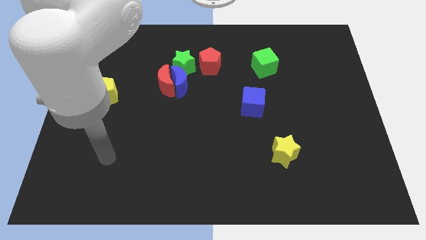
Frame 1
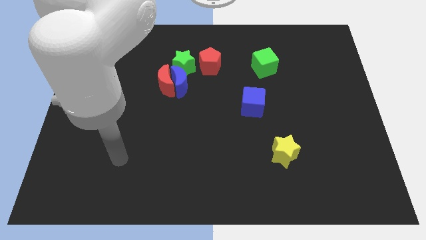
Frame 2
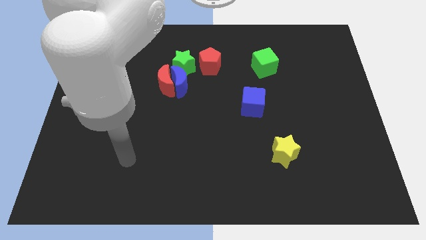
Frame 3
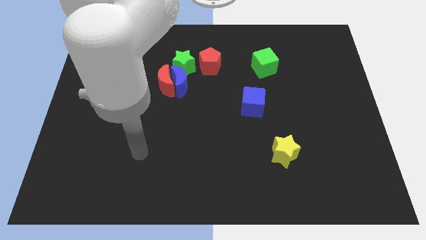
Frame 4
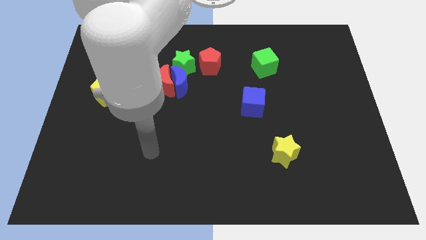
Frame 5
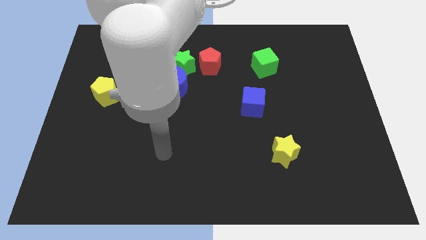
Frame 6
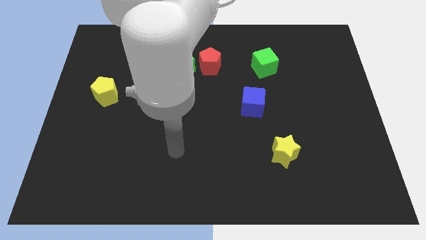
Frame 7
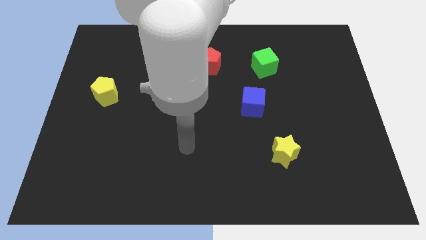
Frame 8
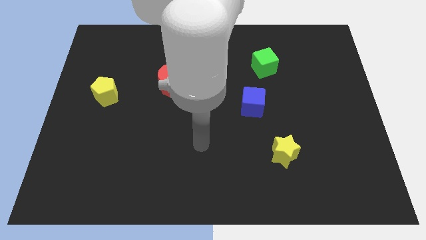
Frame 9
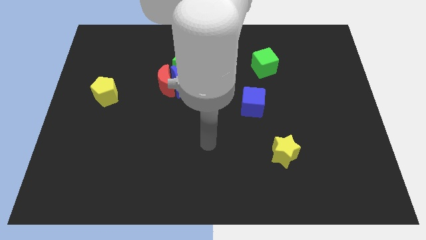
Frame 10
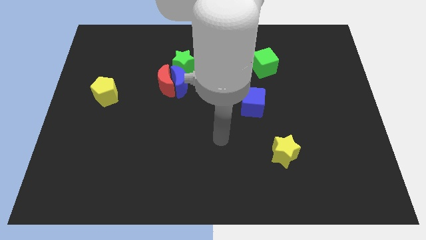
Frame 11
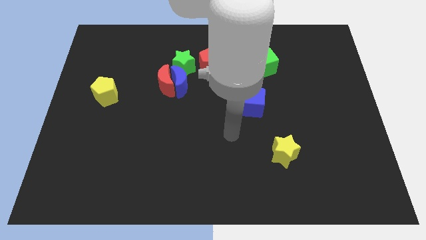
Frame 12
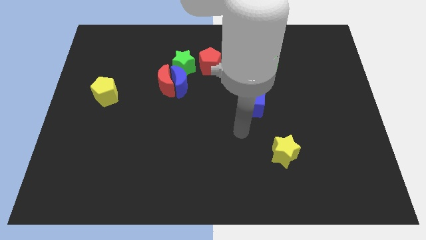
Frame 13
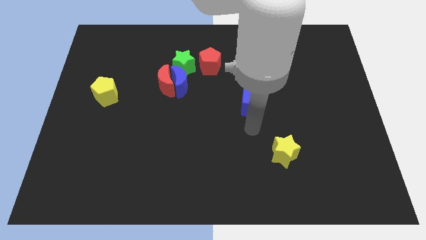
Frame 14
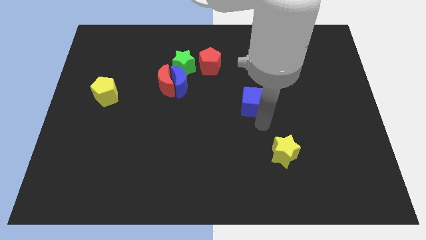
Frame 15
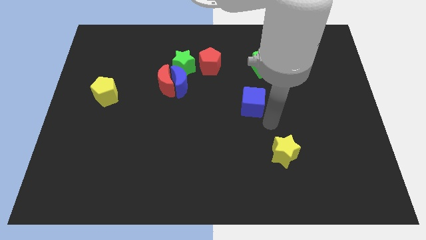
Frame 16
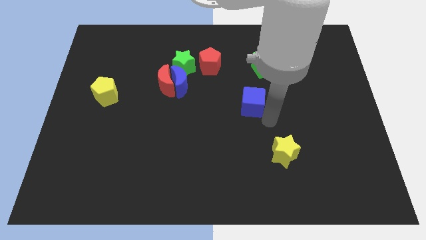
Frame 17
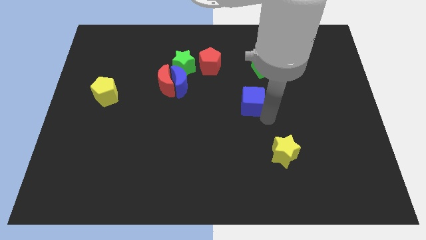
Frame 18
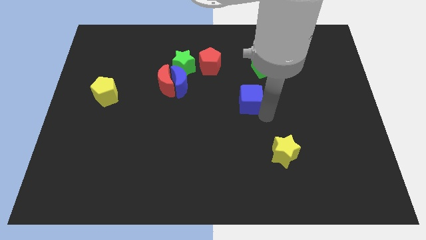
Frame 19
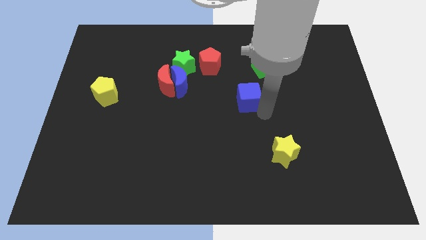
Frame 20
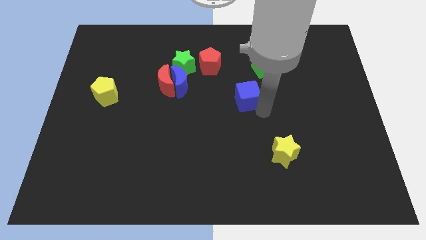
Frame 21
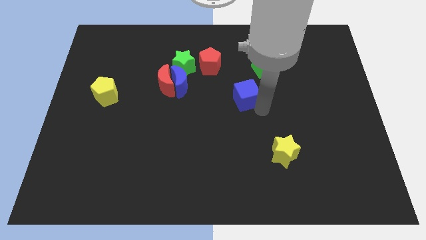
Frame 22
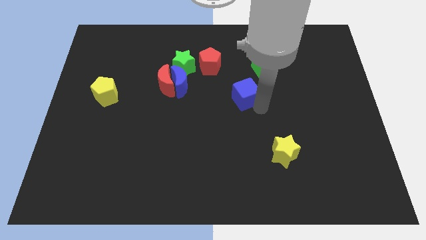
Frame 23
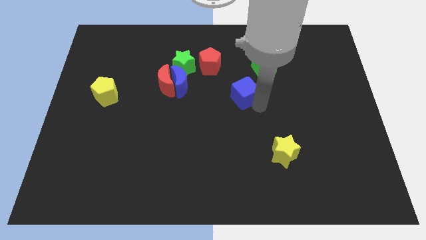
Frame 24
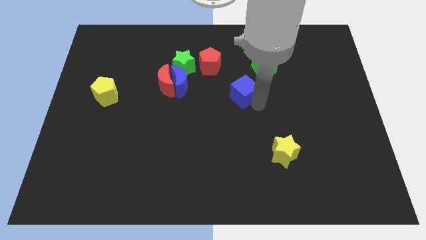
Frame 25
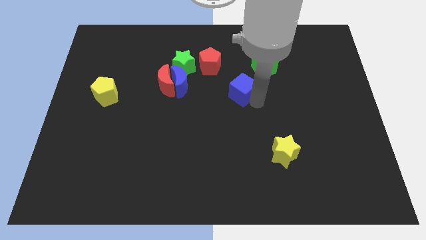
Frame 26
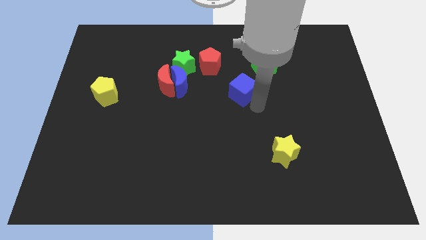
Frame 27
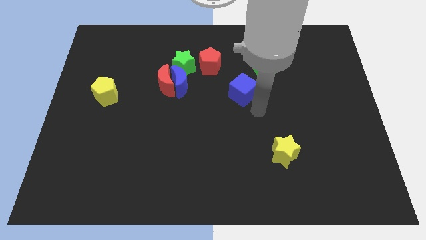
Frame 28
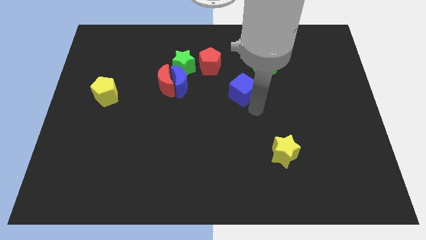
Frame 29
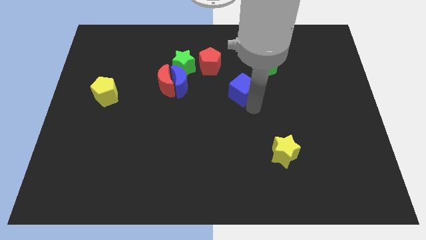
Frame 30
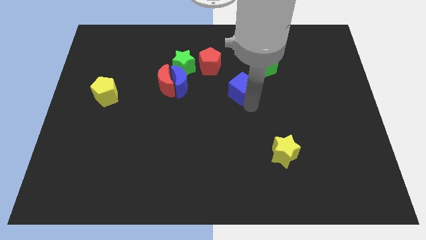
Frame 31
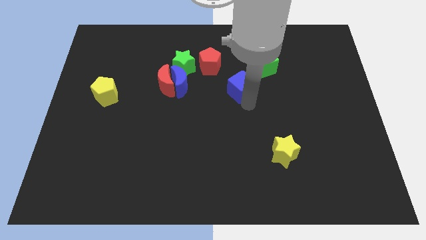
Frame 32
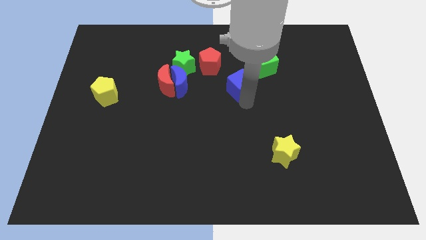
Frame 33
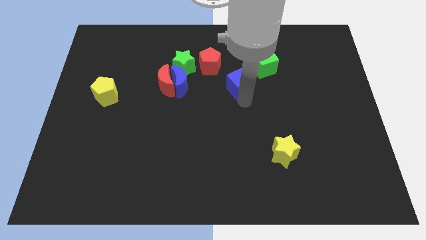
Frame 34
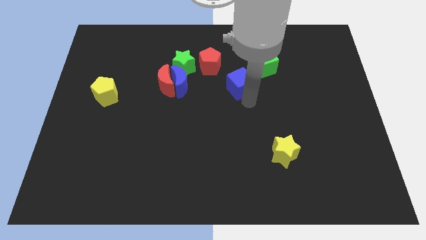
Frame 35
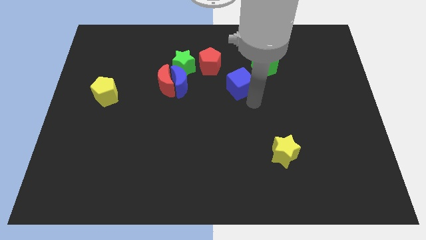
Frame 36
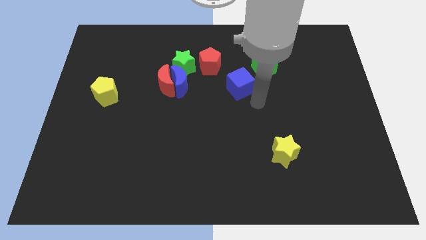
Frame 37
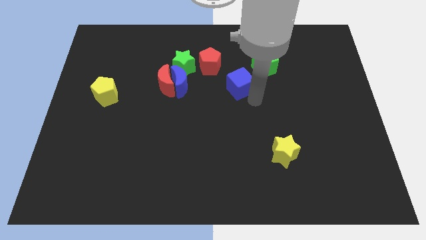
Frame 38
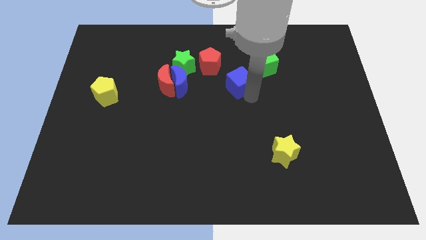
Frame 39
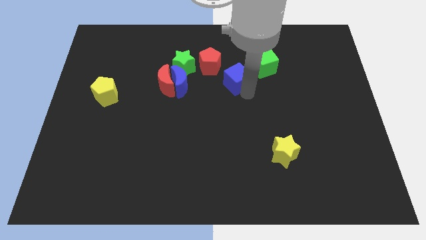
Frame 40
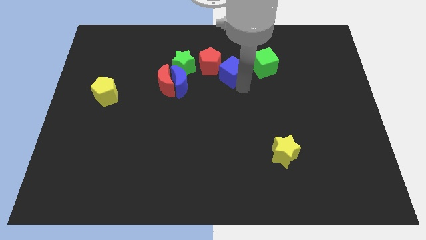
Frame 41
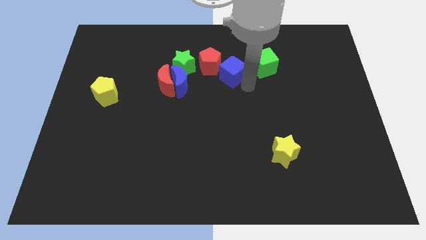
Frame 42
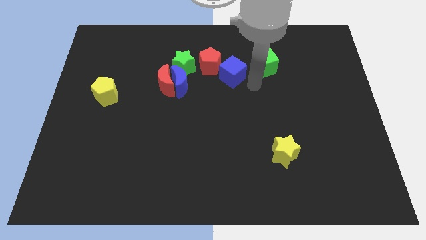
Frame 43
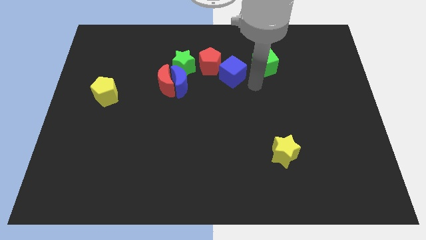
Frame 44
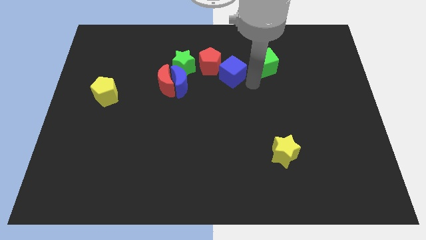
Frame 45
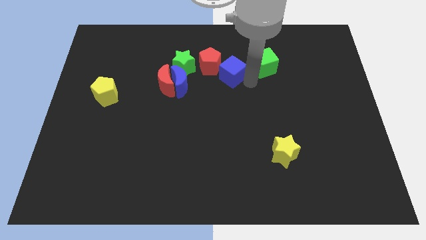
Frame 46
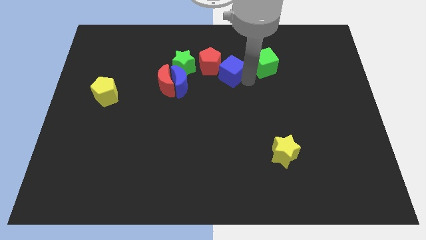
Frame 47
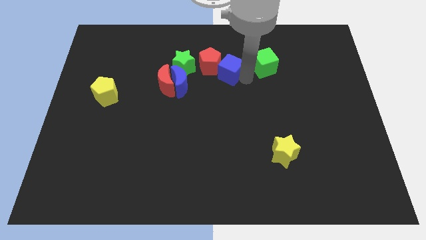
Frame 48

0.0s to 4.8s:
push the blue cube next to the red pentagon

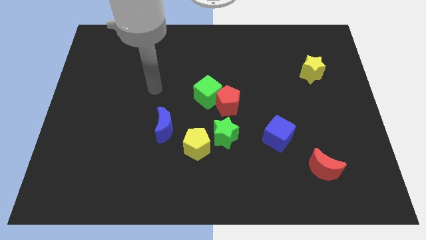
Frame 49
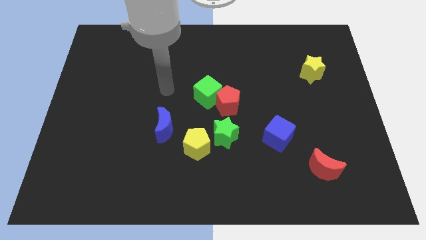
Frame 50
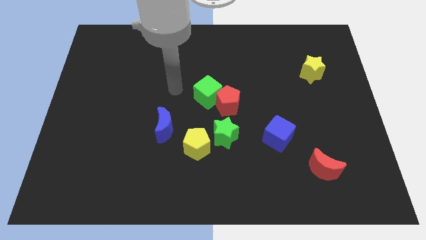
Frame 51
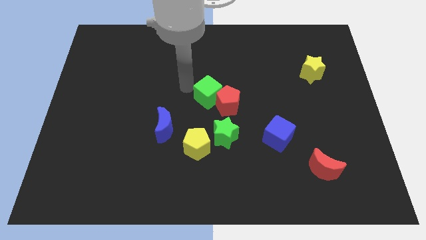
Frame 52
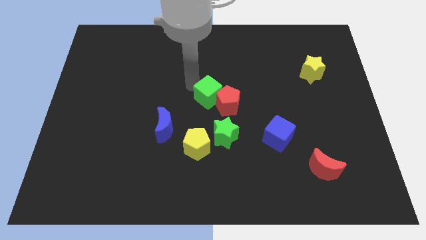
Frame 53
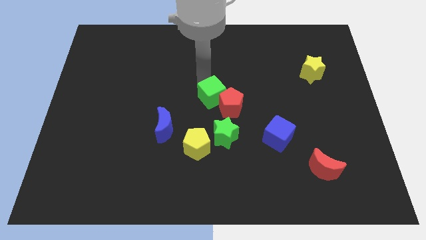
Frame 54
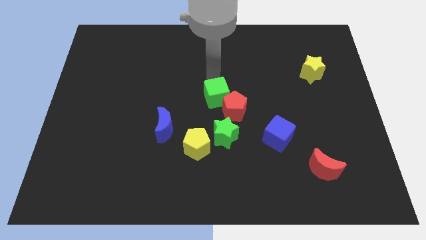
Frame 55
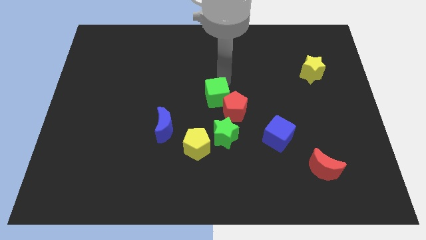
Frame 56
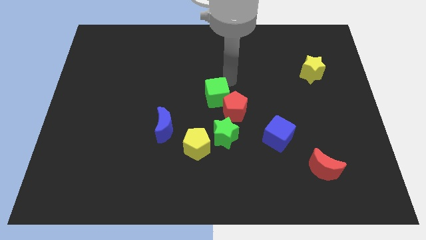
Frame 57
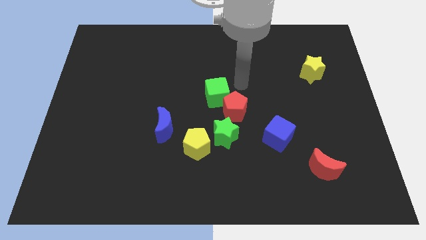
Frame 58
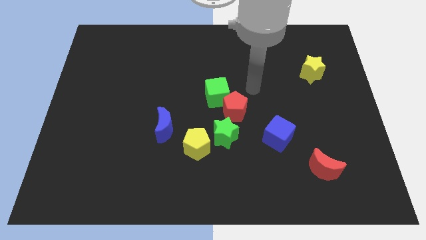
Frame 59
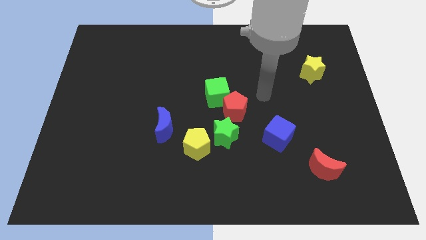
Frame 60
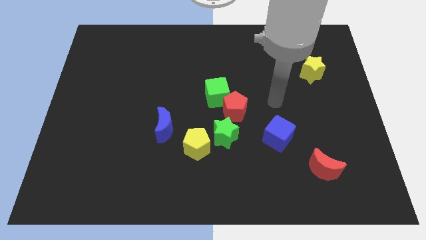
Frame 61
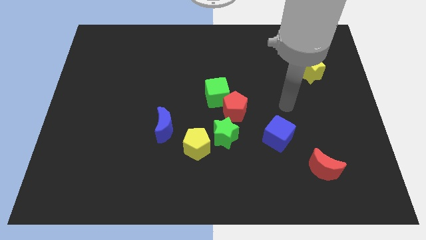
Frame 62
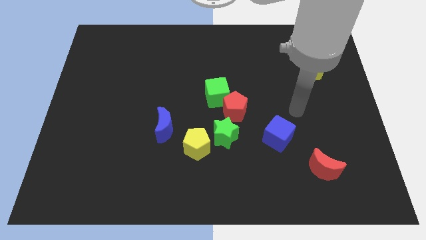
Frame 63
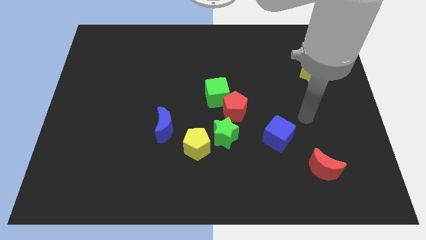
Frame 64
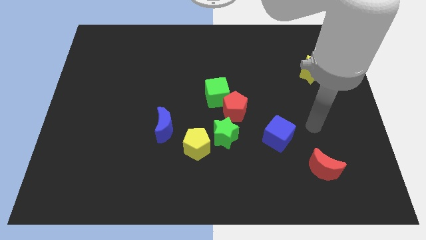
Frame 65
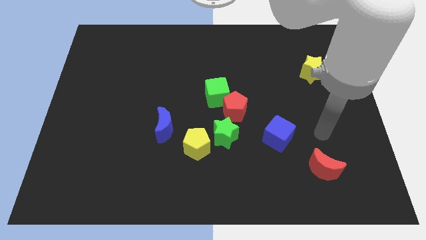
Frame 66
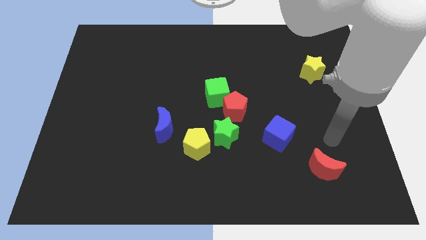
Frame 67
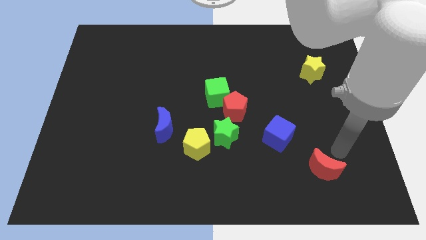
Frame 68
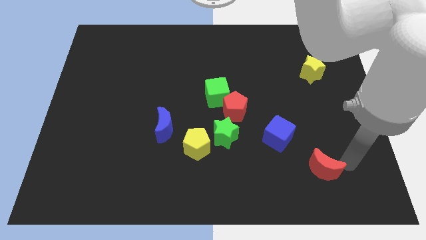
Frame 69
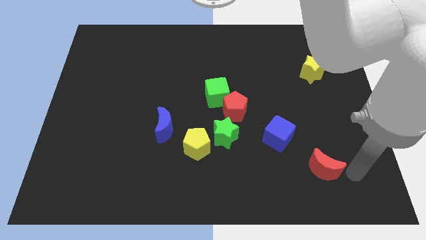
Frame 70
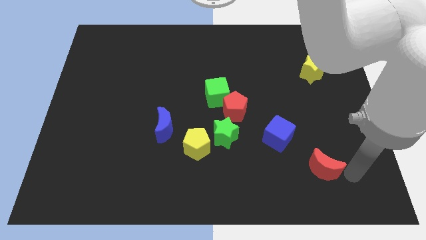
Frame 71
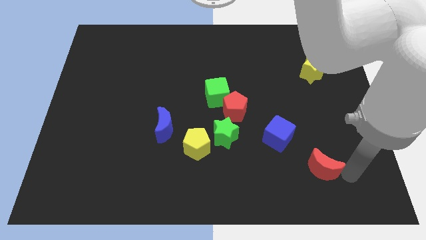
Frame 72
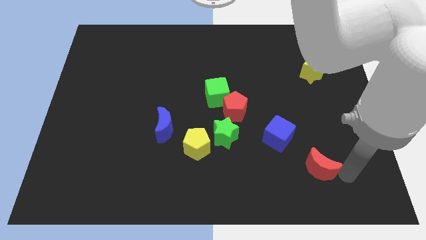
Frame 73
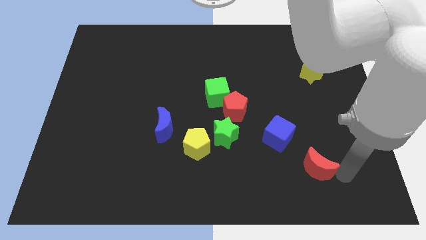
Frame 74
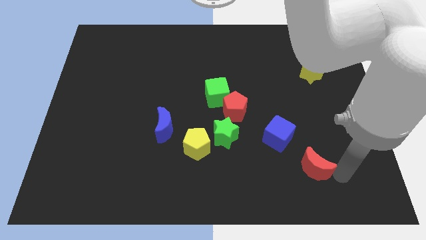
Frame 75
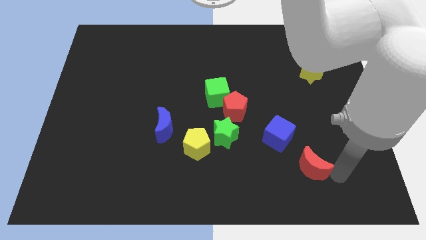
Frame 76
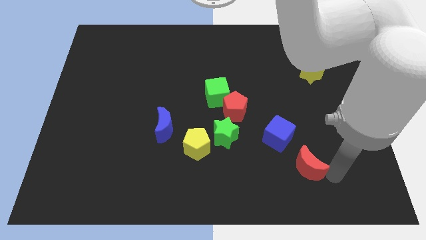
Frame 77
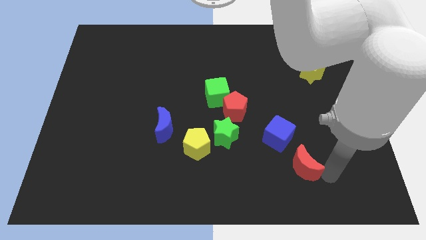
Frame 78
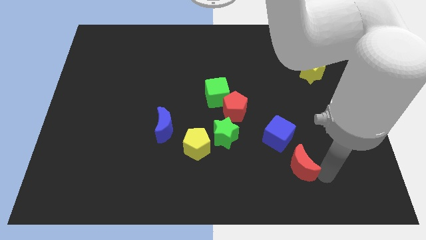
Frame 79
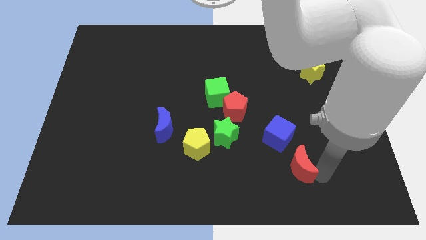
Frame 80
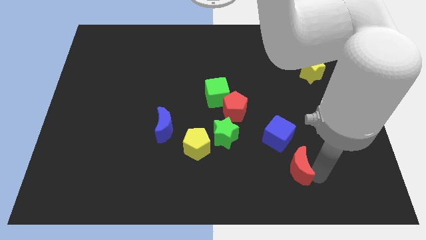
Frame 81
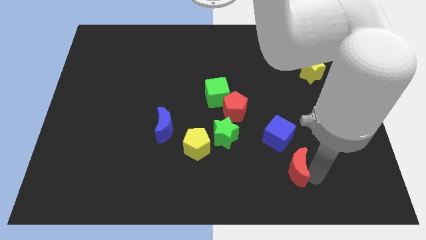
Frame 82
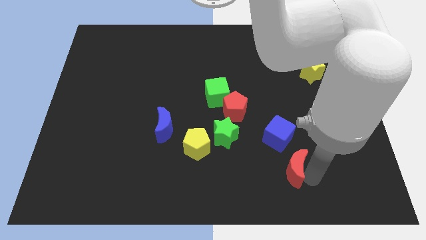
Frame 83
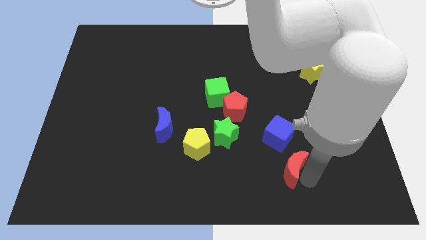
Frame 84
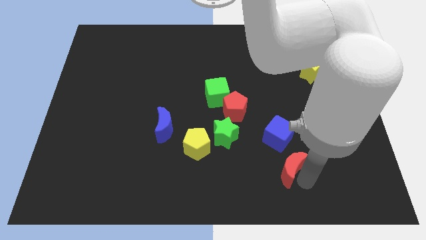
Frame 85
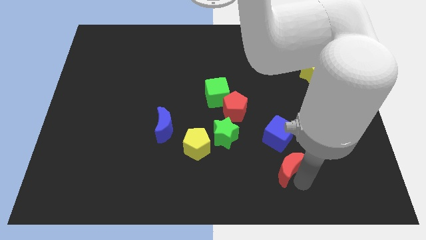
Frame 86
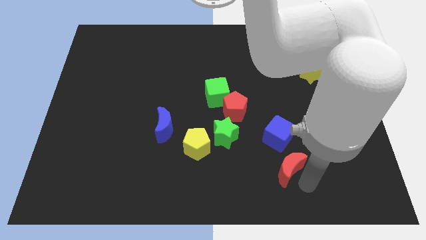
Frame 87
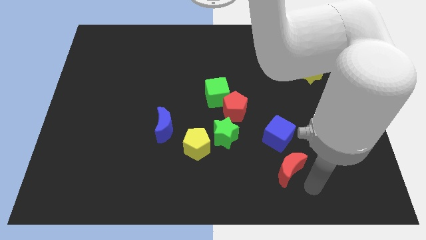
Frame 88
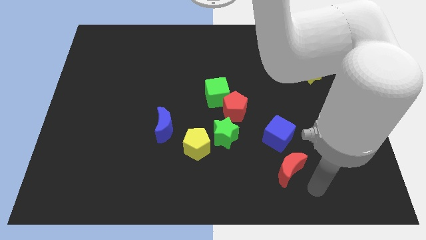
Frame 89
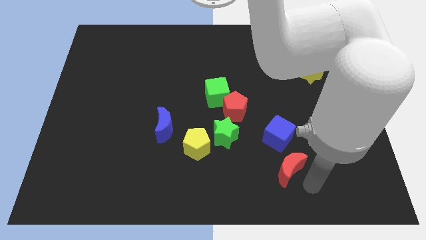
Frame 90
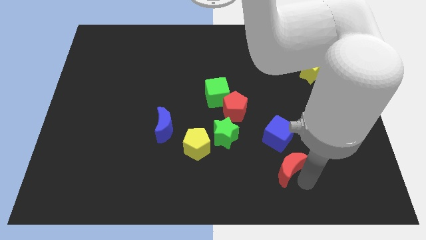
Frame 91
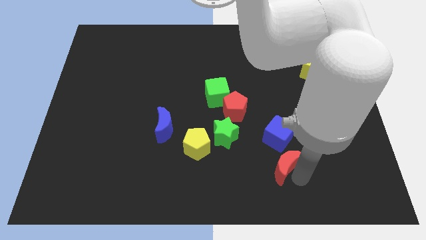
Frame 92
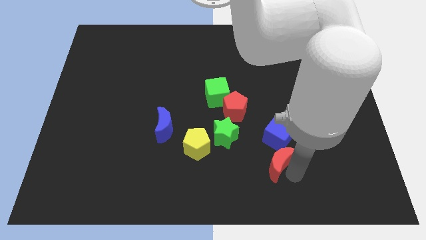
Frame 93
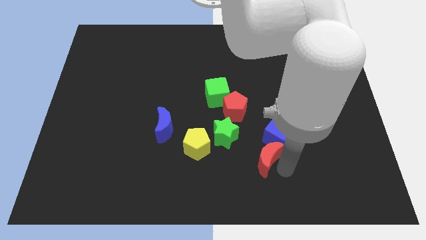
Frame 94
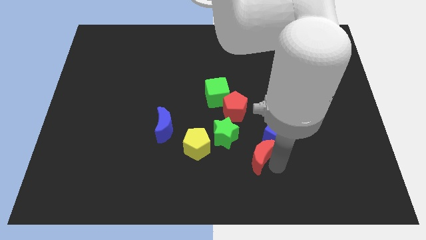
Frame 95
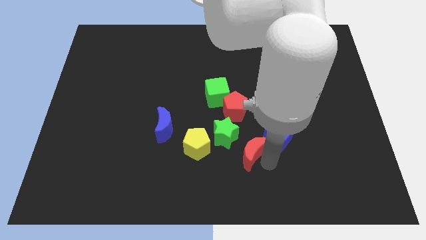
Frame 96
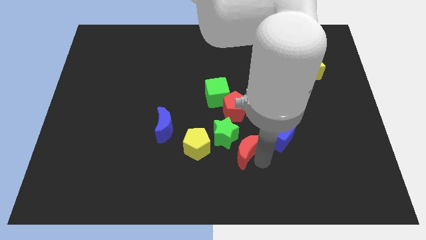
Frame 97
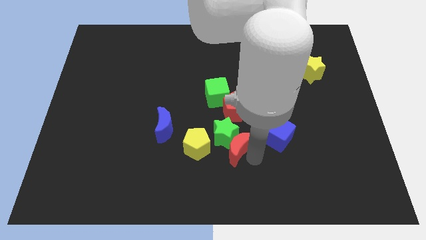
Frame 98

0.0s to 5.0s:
slide the red moon to the green star
